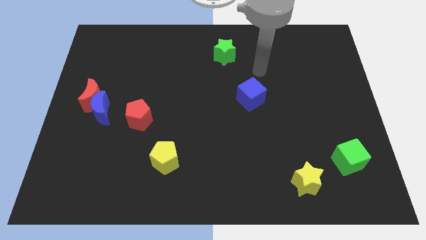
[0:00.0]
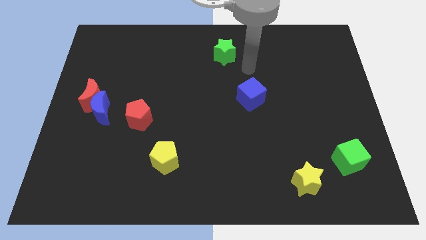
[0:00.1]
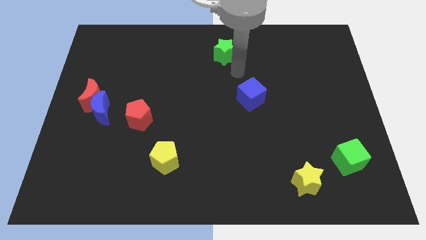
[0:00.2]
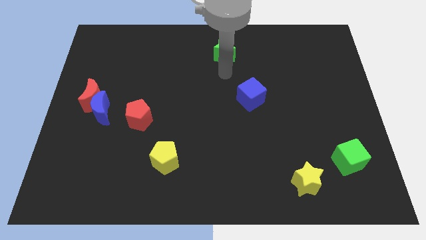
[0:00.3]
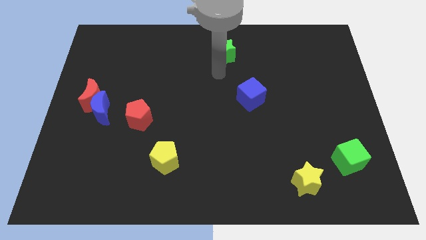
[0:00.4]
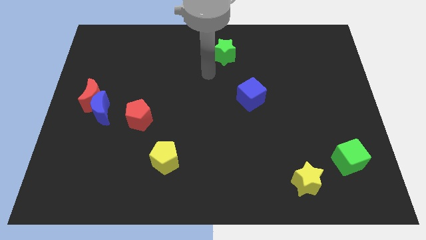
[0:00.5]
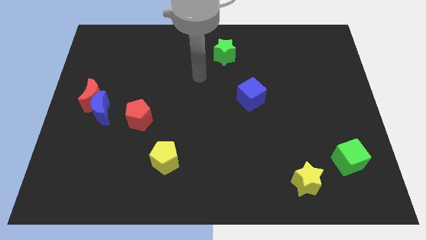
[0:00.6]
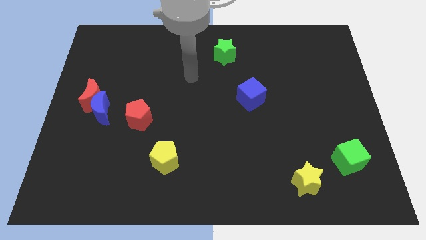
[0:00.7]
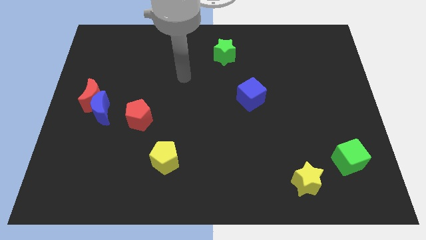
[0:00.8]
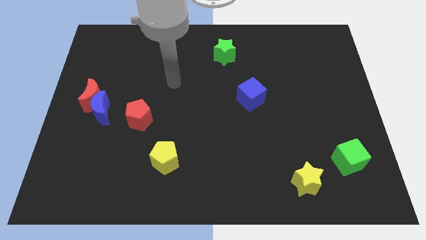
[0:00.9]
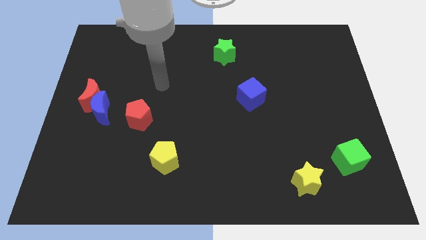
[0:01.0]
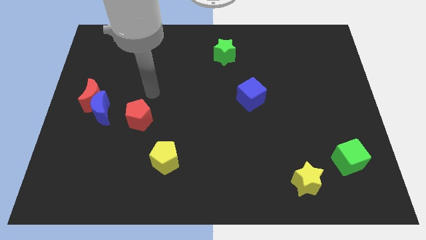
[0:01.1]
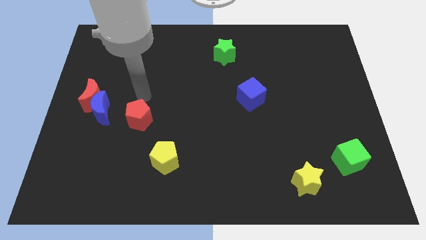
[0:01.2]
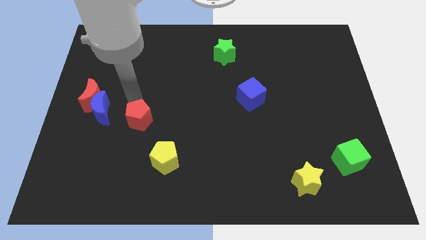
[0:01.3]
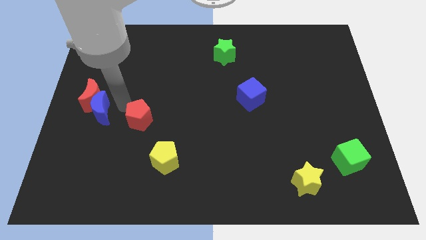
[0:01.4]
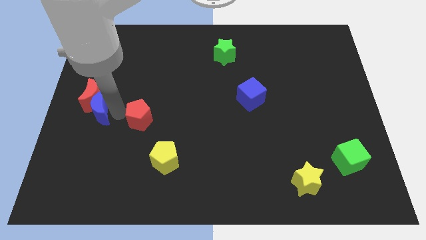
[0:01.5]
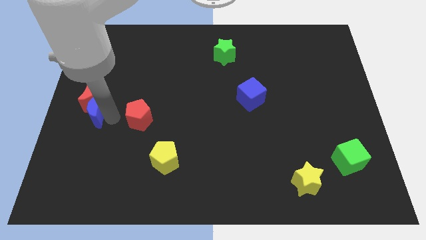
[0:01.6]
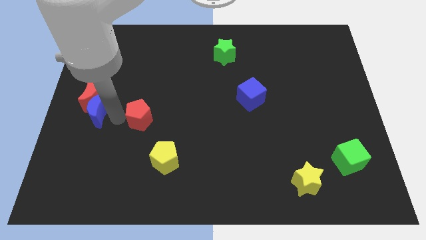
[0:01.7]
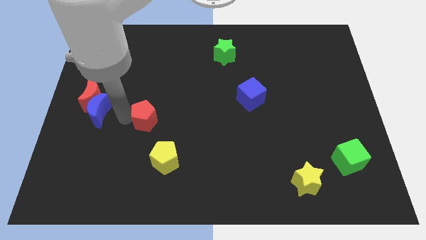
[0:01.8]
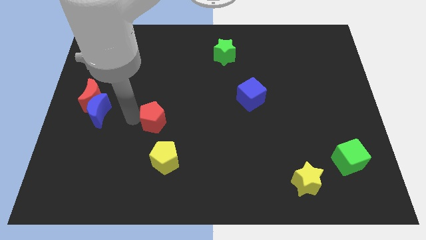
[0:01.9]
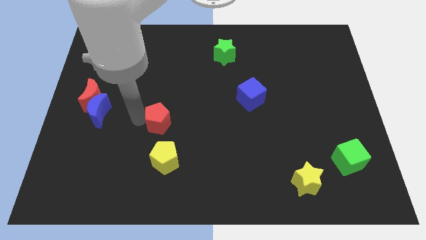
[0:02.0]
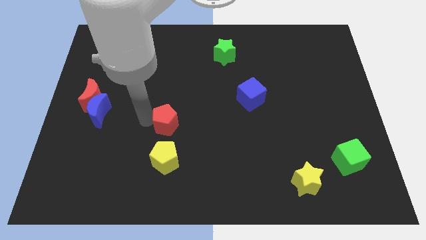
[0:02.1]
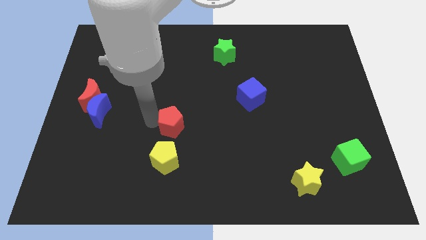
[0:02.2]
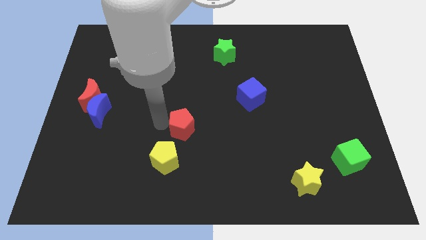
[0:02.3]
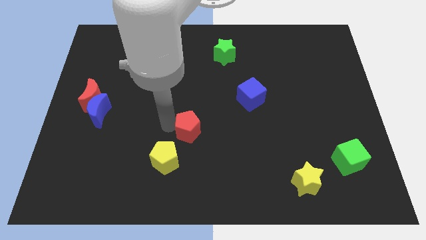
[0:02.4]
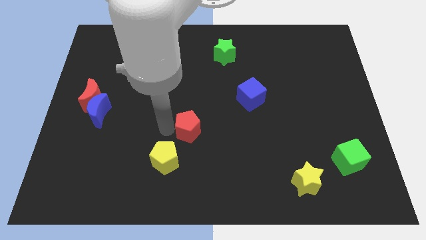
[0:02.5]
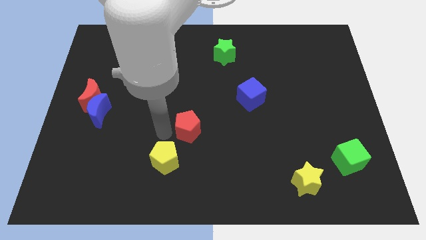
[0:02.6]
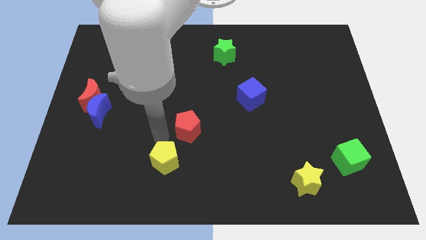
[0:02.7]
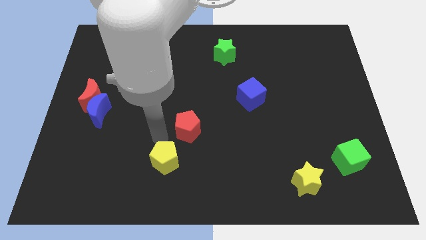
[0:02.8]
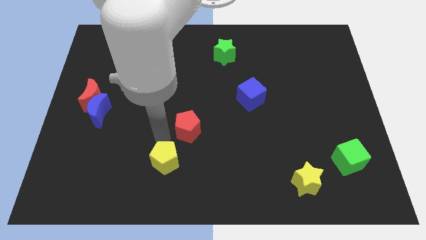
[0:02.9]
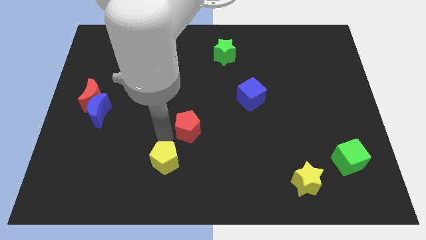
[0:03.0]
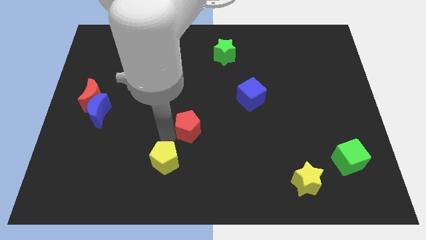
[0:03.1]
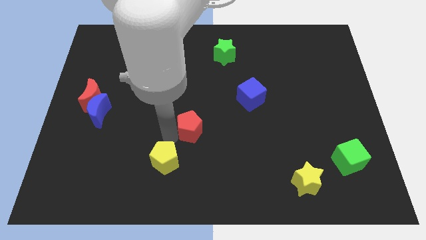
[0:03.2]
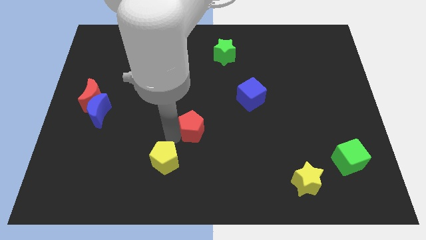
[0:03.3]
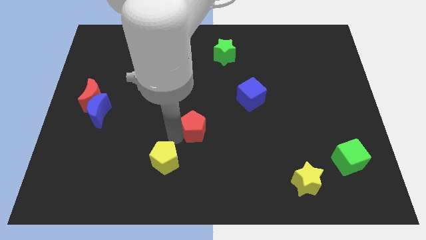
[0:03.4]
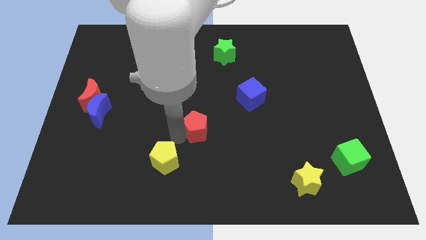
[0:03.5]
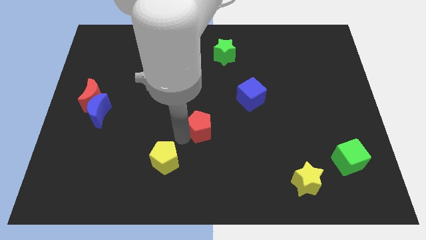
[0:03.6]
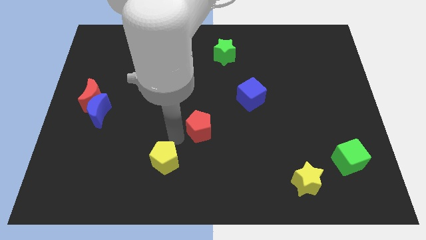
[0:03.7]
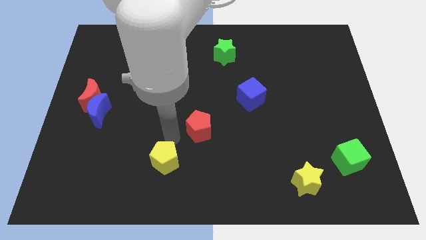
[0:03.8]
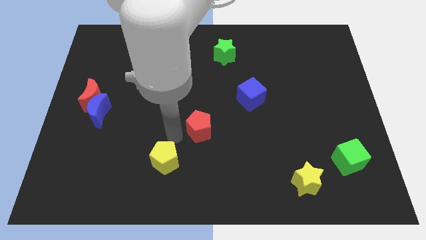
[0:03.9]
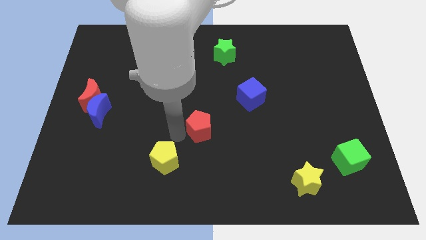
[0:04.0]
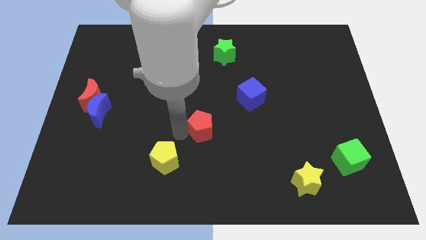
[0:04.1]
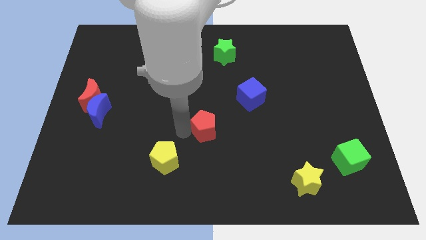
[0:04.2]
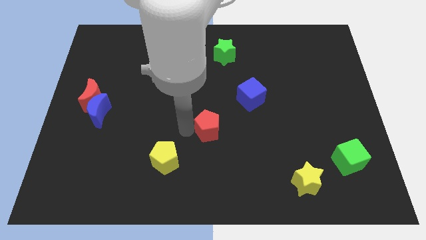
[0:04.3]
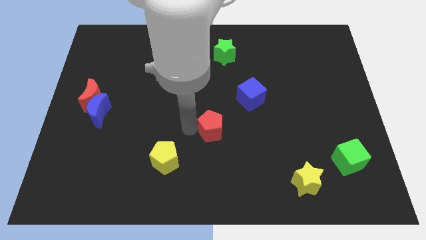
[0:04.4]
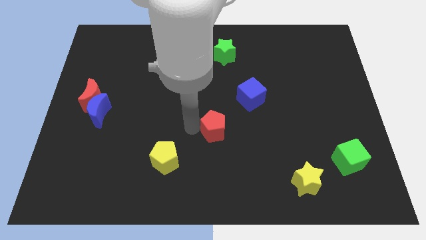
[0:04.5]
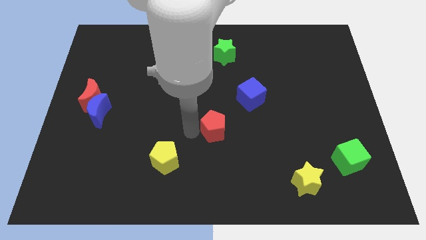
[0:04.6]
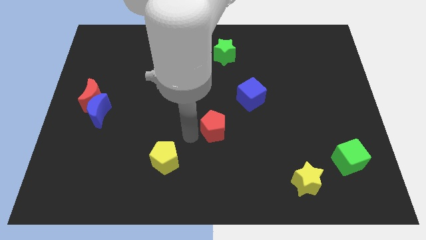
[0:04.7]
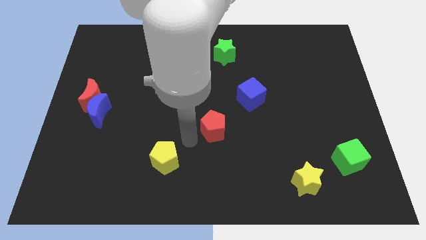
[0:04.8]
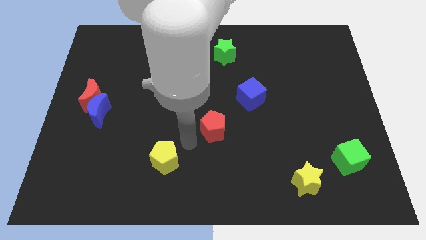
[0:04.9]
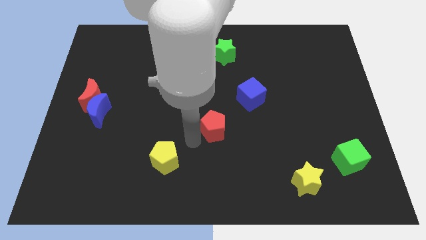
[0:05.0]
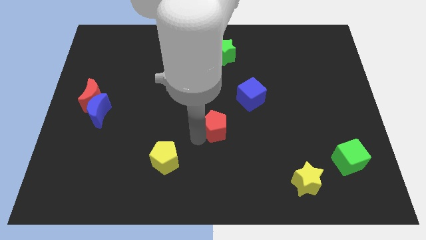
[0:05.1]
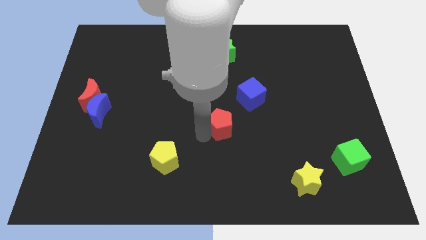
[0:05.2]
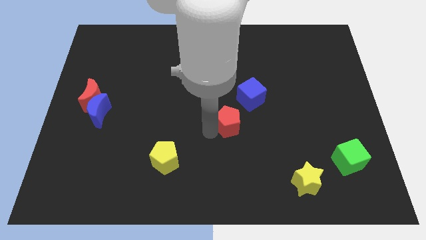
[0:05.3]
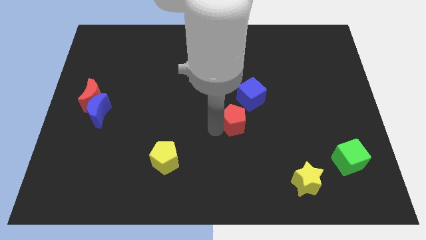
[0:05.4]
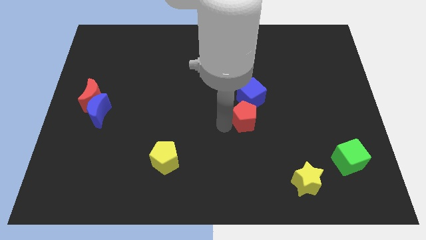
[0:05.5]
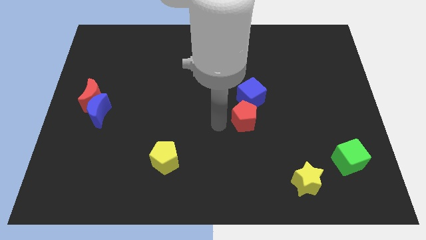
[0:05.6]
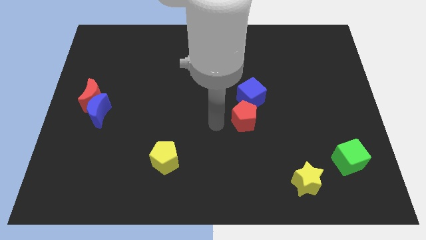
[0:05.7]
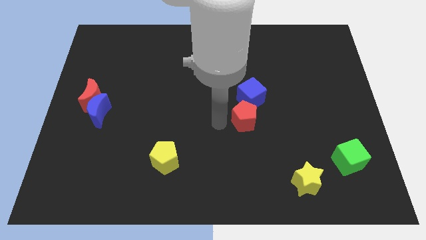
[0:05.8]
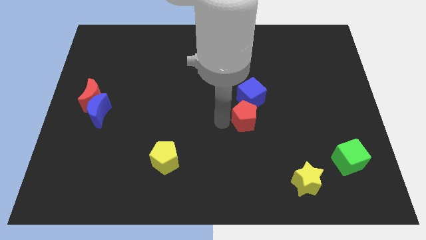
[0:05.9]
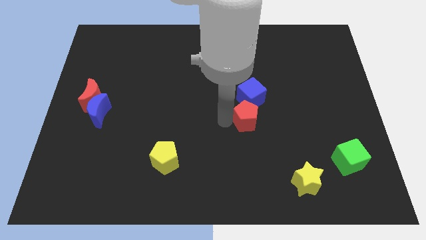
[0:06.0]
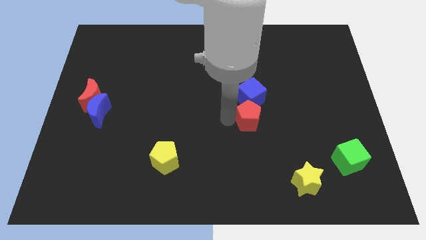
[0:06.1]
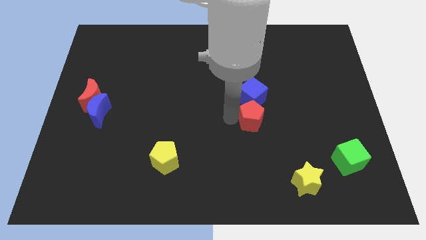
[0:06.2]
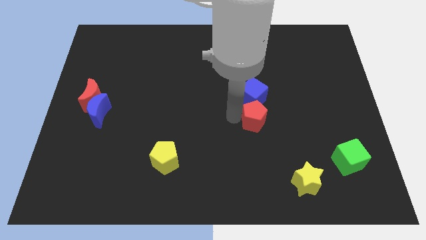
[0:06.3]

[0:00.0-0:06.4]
move the red pentagon to the bottom right side of the blue cube

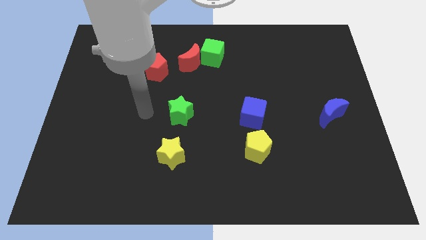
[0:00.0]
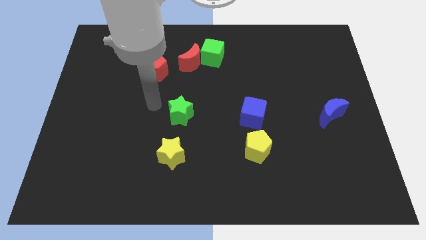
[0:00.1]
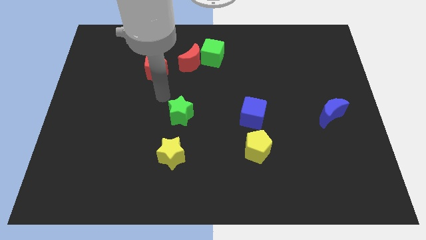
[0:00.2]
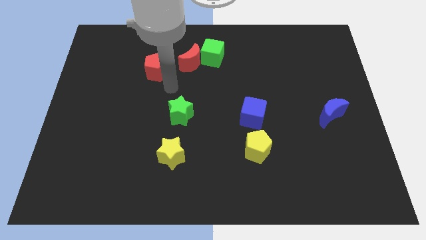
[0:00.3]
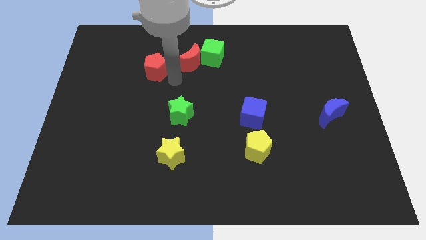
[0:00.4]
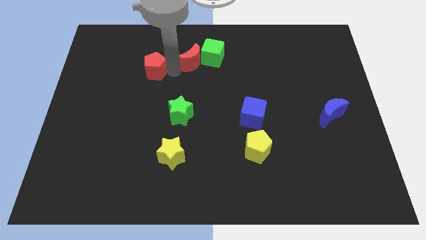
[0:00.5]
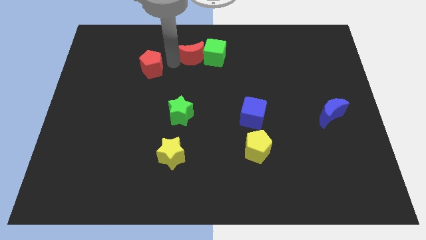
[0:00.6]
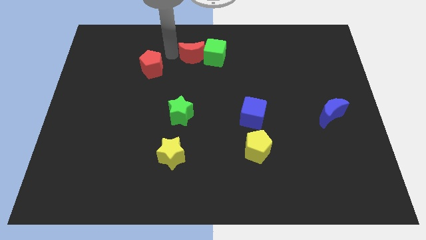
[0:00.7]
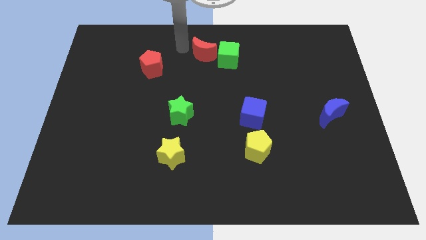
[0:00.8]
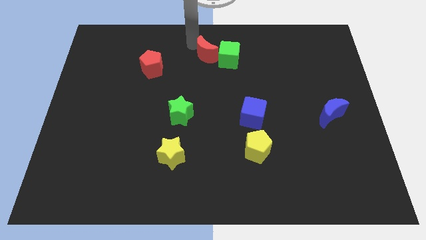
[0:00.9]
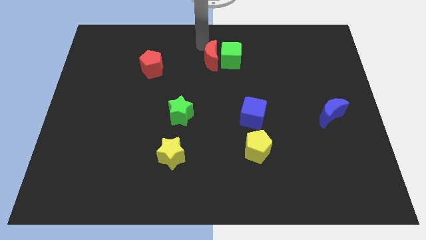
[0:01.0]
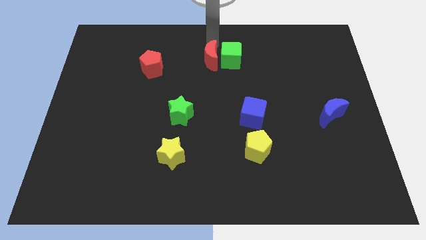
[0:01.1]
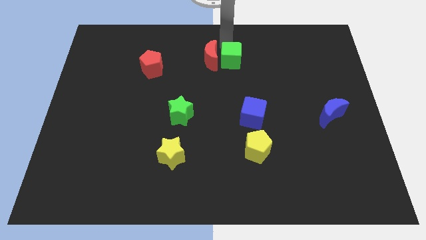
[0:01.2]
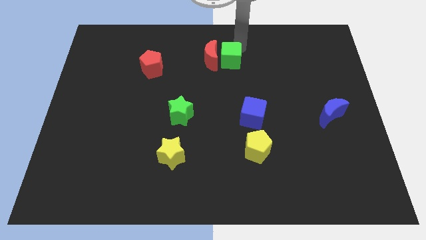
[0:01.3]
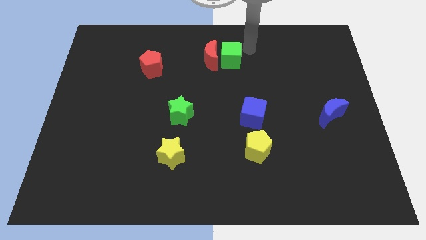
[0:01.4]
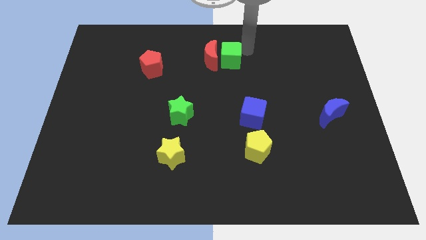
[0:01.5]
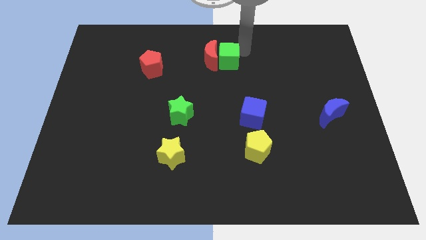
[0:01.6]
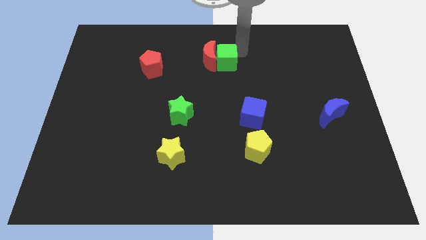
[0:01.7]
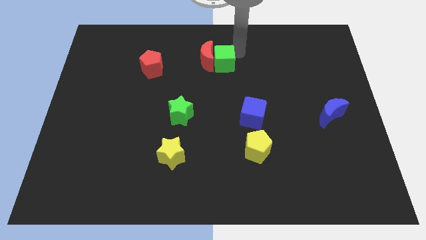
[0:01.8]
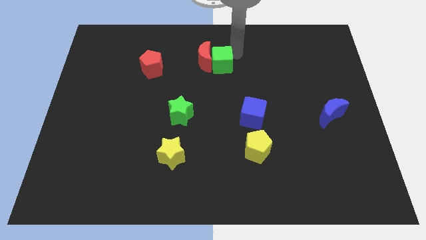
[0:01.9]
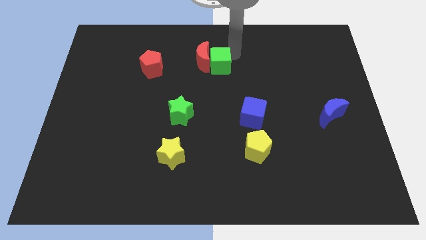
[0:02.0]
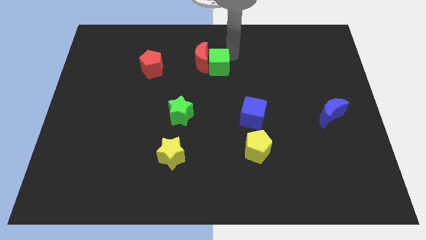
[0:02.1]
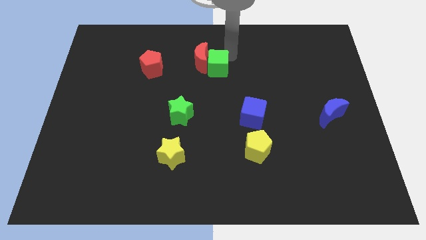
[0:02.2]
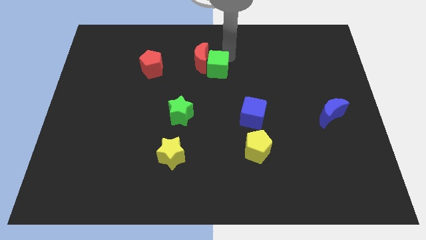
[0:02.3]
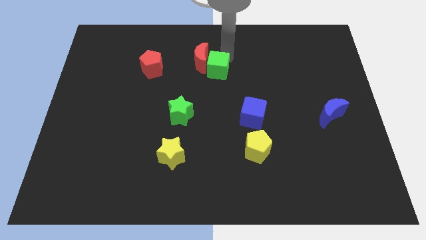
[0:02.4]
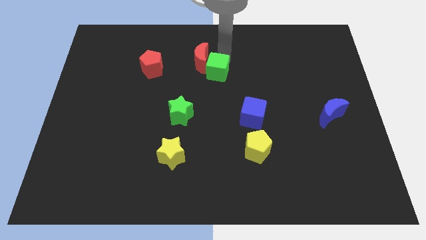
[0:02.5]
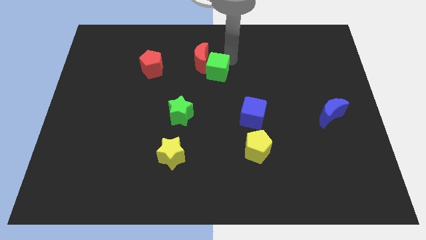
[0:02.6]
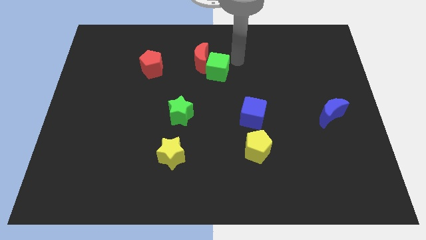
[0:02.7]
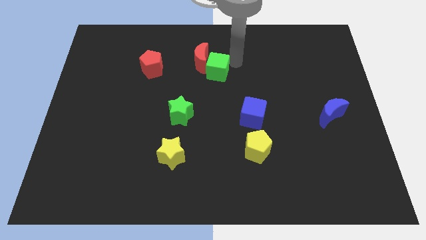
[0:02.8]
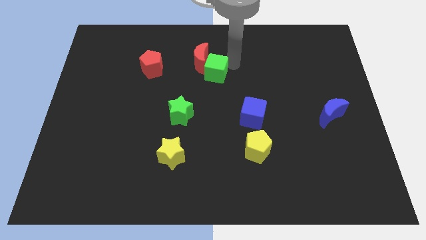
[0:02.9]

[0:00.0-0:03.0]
put the green cube right of the red pentagon
